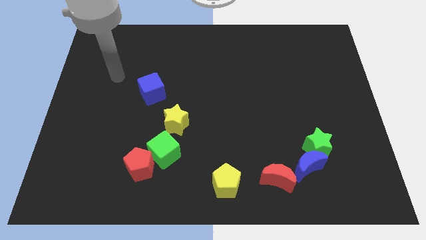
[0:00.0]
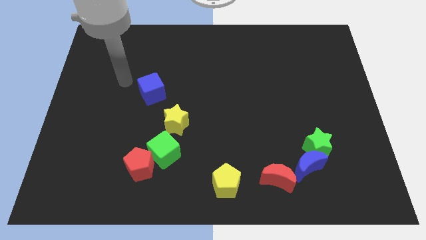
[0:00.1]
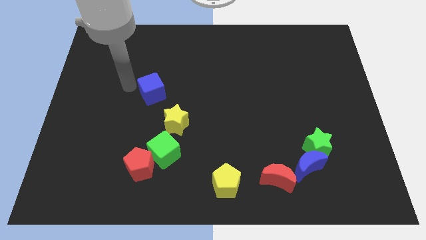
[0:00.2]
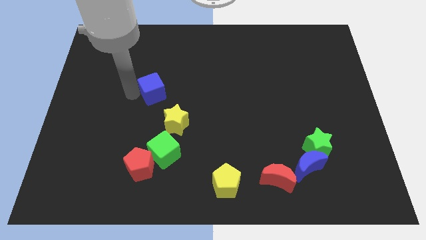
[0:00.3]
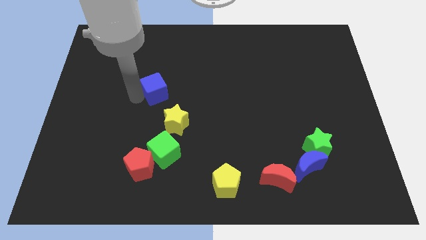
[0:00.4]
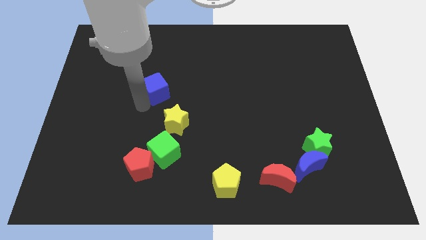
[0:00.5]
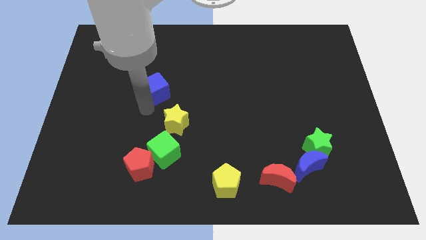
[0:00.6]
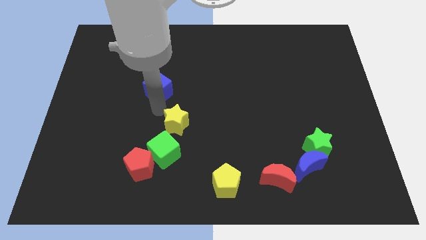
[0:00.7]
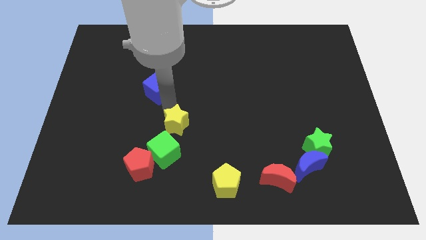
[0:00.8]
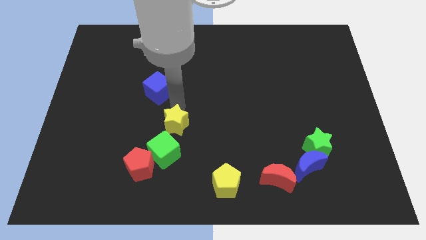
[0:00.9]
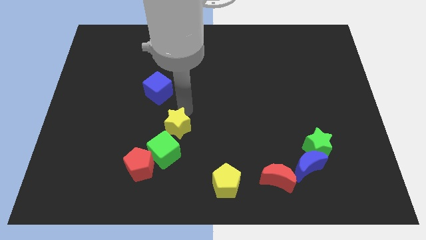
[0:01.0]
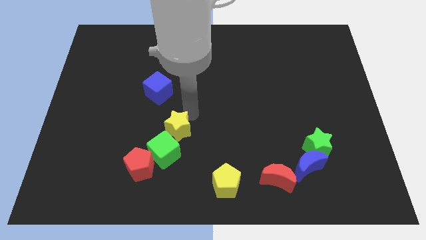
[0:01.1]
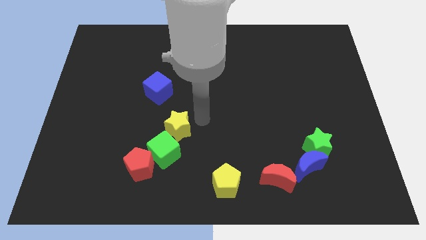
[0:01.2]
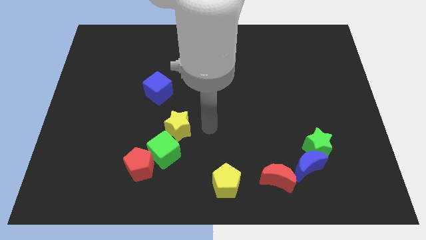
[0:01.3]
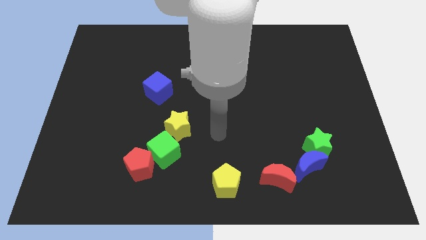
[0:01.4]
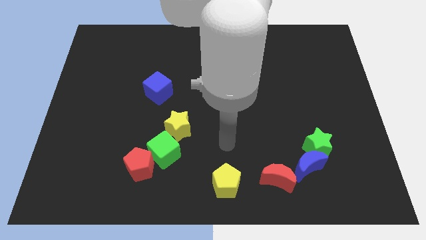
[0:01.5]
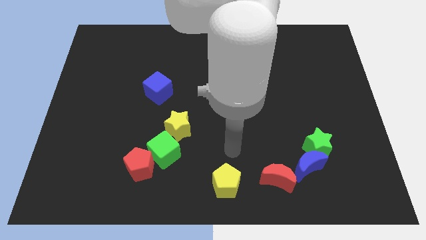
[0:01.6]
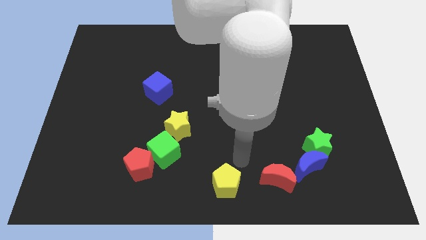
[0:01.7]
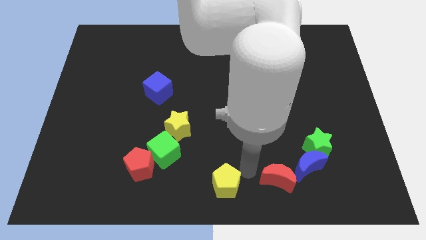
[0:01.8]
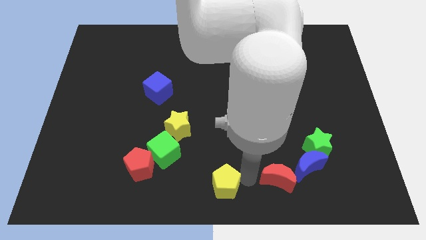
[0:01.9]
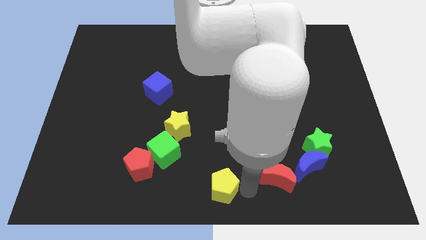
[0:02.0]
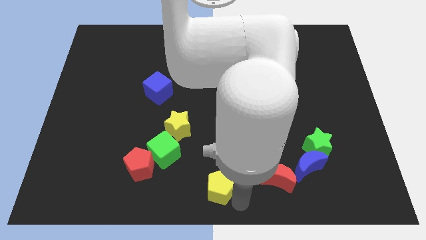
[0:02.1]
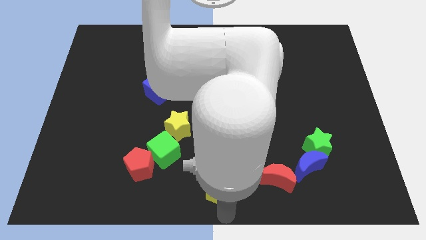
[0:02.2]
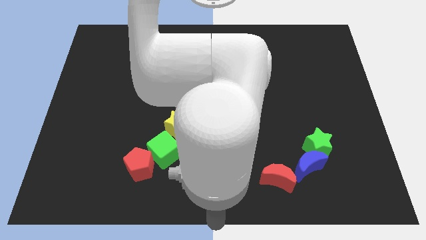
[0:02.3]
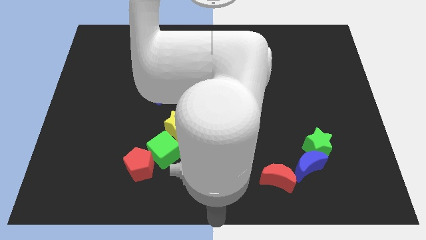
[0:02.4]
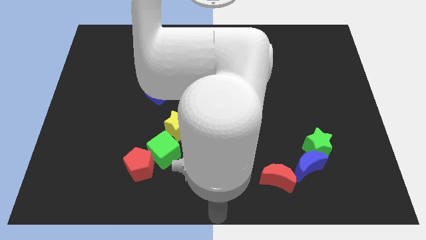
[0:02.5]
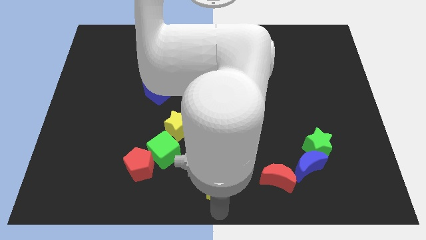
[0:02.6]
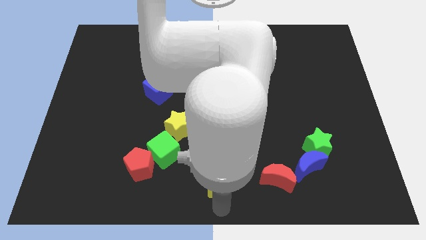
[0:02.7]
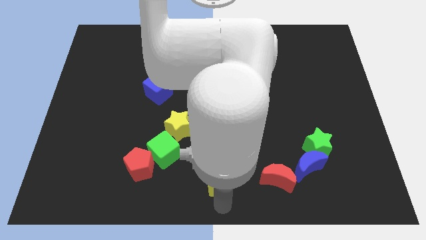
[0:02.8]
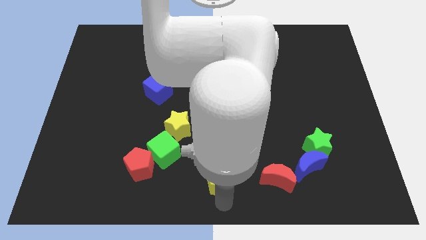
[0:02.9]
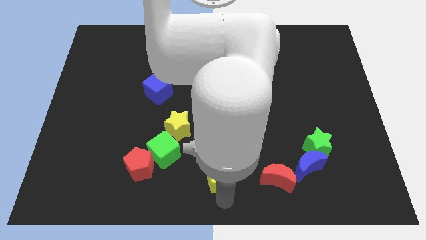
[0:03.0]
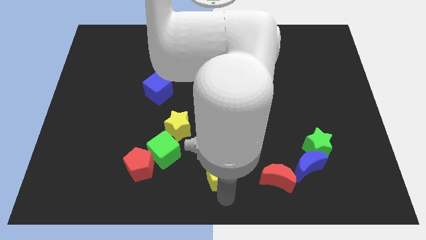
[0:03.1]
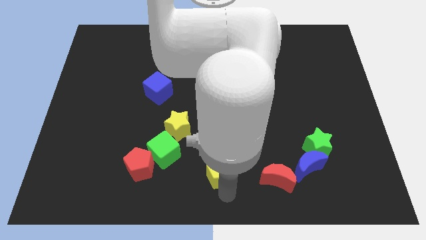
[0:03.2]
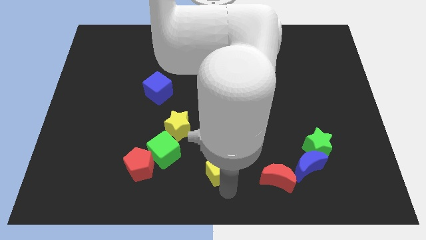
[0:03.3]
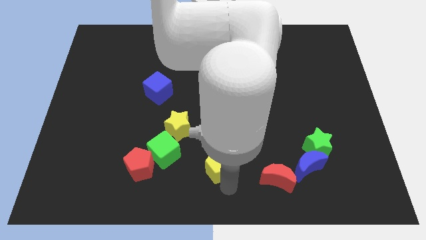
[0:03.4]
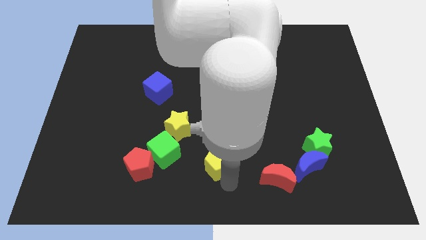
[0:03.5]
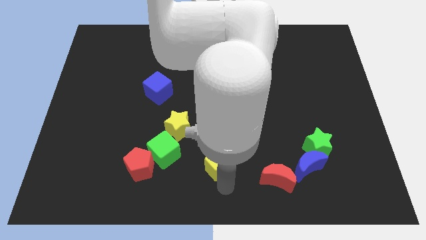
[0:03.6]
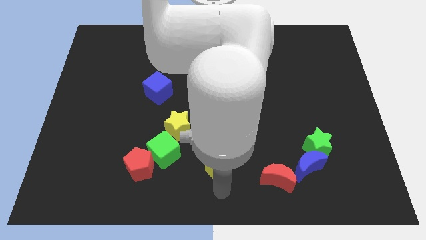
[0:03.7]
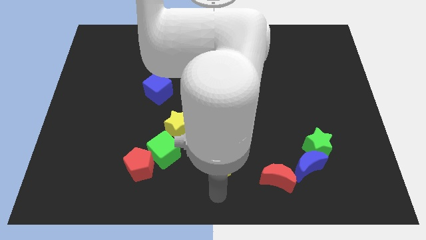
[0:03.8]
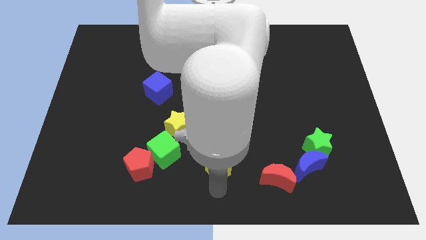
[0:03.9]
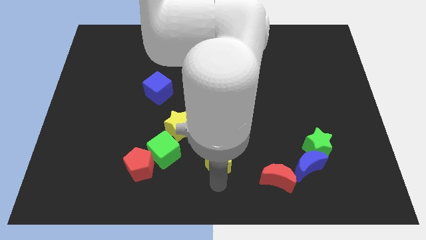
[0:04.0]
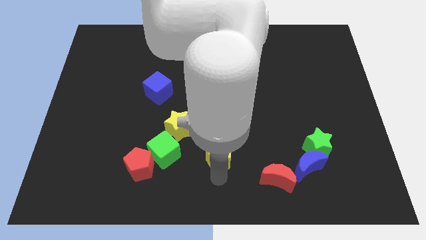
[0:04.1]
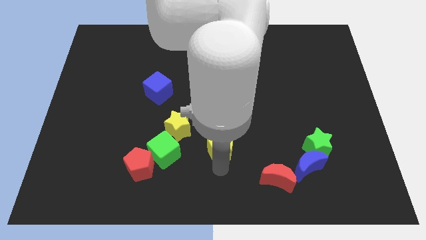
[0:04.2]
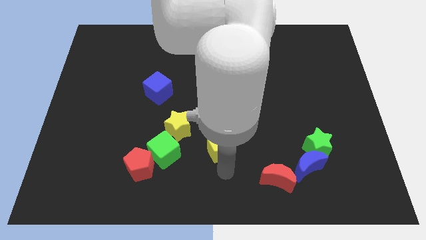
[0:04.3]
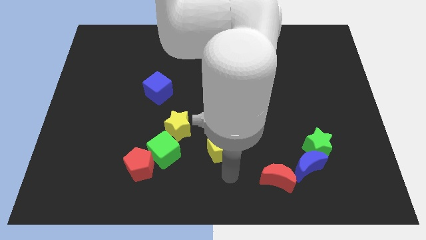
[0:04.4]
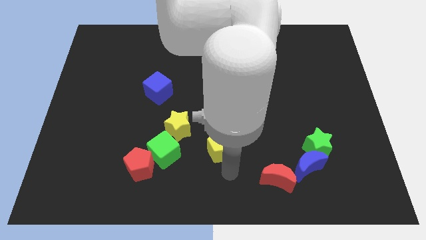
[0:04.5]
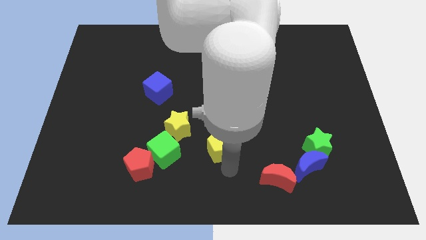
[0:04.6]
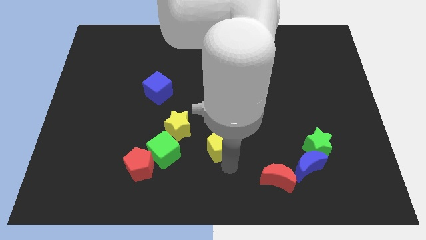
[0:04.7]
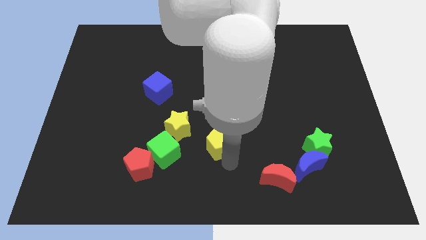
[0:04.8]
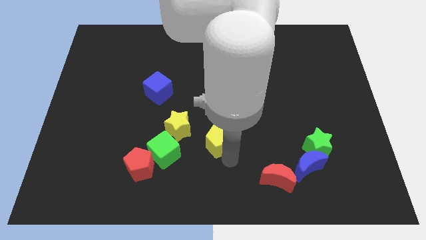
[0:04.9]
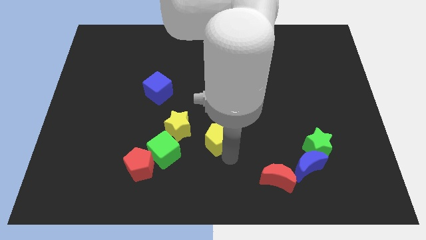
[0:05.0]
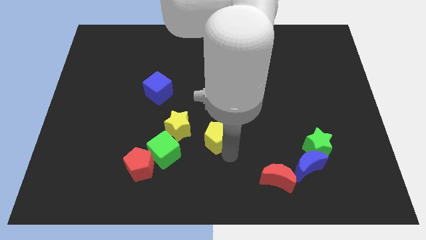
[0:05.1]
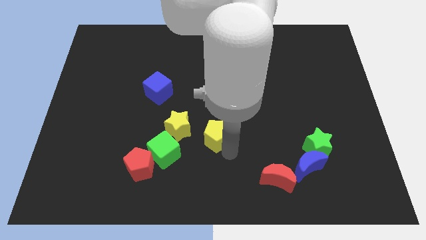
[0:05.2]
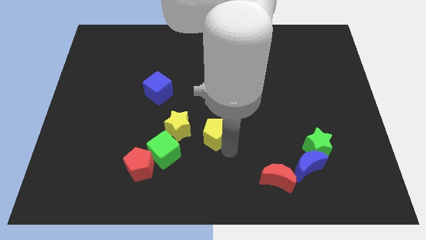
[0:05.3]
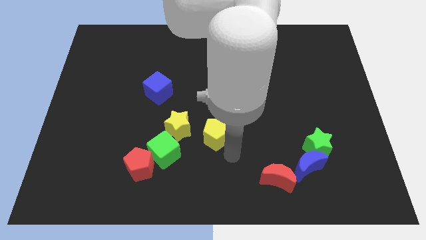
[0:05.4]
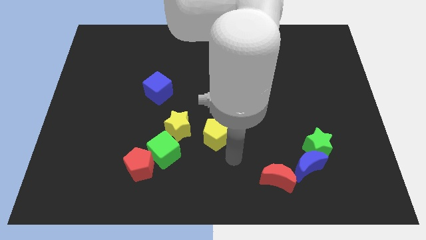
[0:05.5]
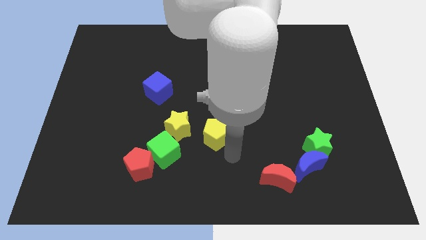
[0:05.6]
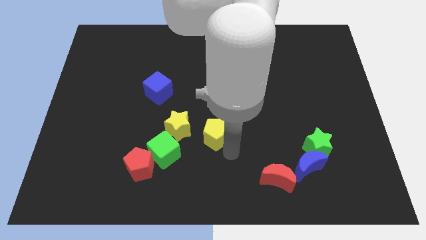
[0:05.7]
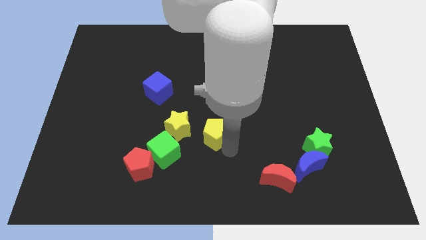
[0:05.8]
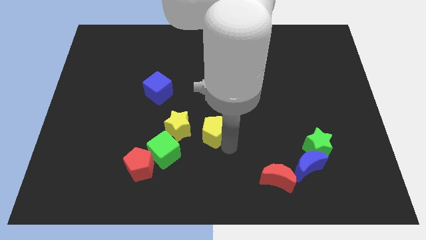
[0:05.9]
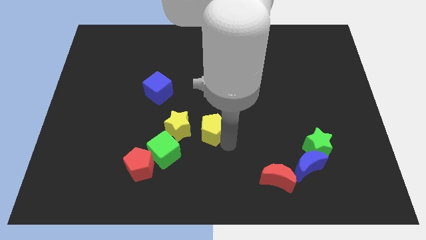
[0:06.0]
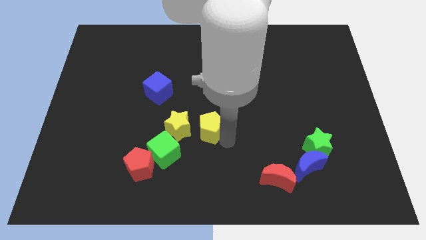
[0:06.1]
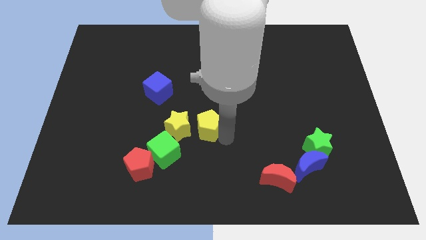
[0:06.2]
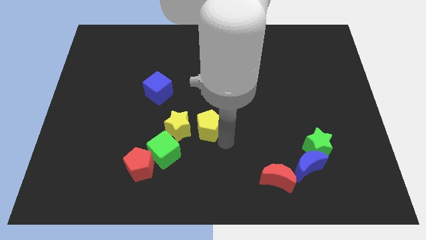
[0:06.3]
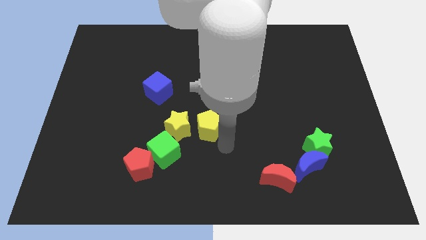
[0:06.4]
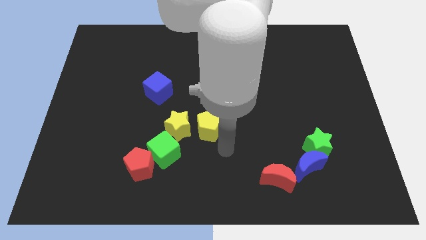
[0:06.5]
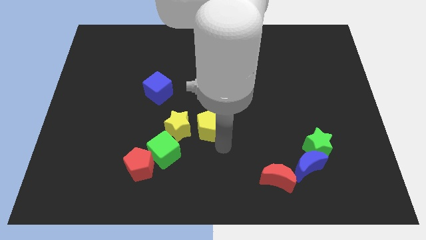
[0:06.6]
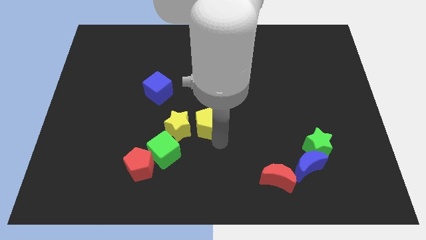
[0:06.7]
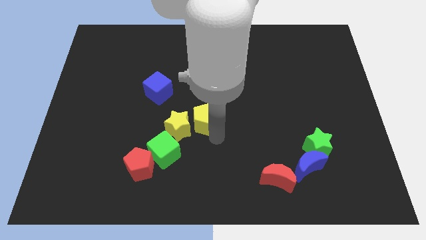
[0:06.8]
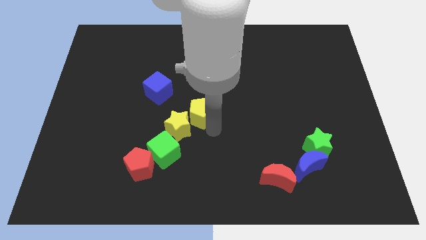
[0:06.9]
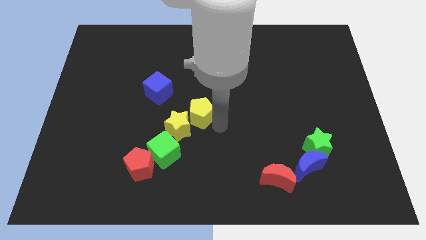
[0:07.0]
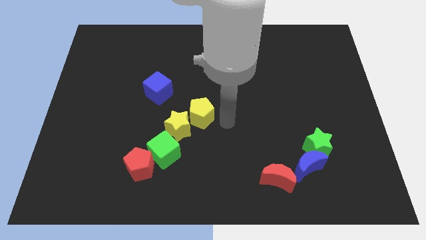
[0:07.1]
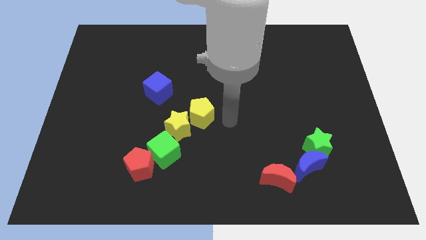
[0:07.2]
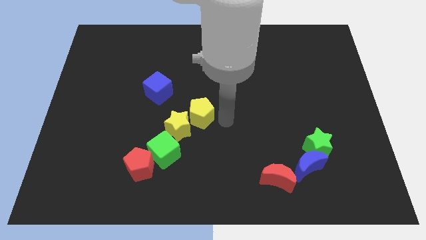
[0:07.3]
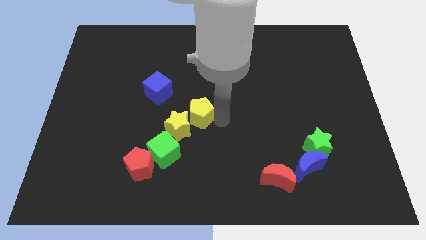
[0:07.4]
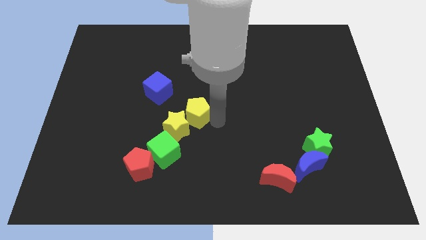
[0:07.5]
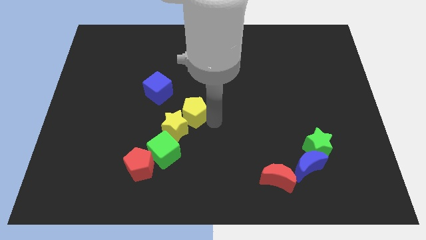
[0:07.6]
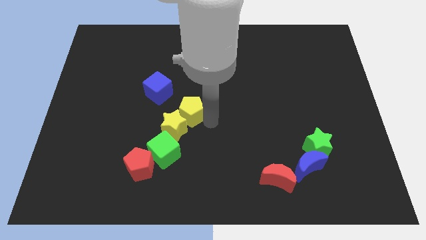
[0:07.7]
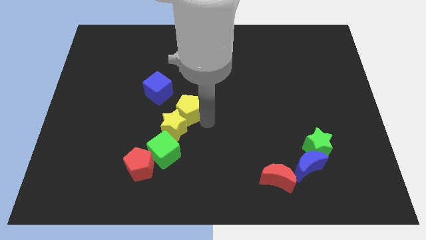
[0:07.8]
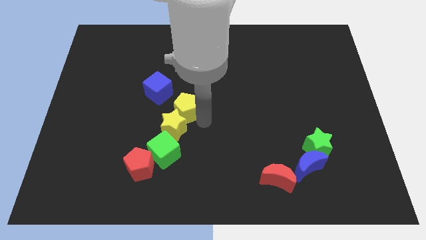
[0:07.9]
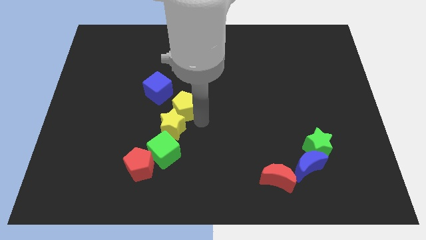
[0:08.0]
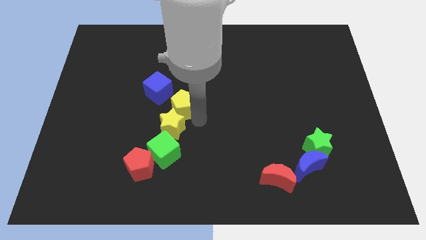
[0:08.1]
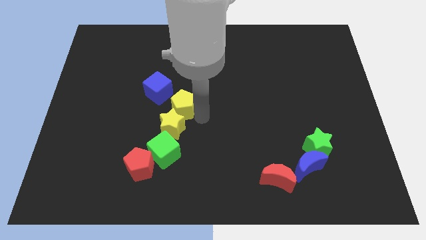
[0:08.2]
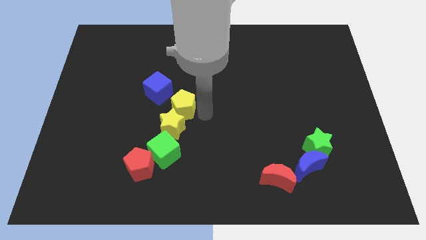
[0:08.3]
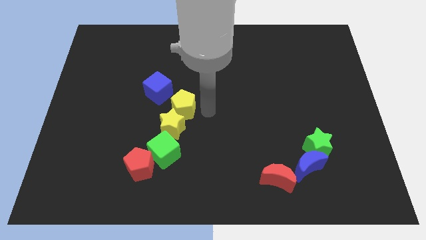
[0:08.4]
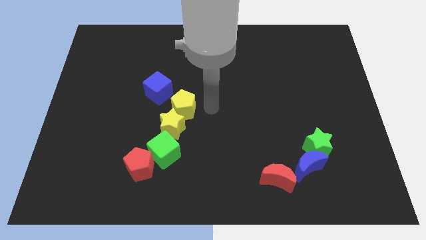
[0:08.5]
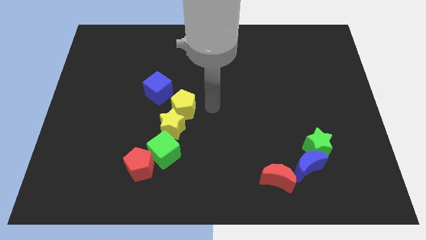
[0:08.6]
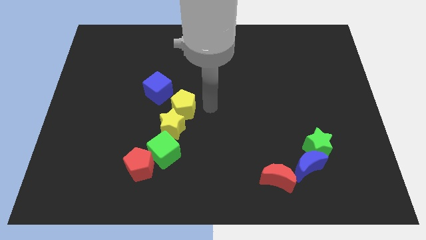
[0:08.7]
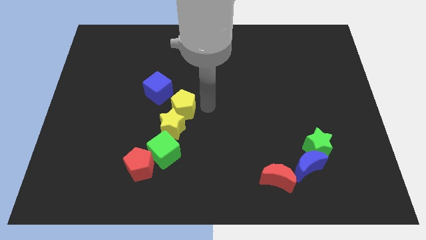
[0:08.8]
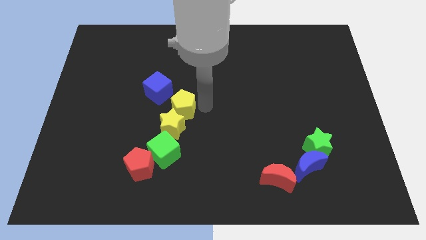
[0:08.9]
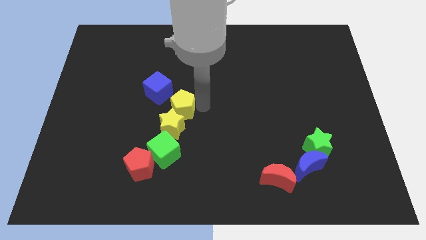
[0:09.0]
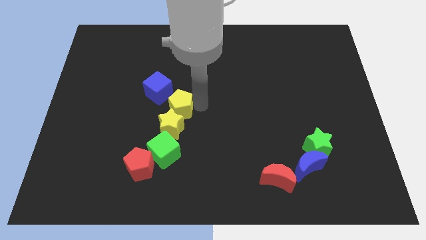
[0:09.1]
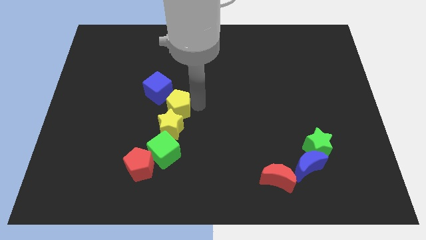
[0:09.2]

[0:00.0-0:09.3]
slide the yellow pentagon upwards and then to the left
